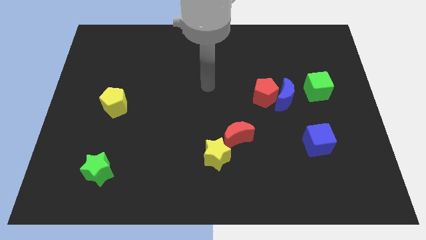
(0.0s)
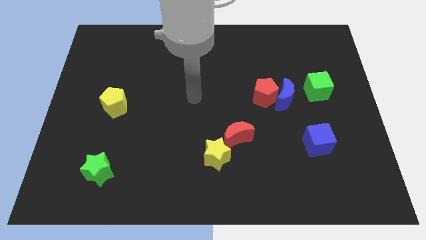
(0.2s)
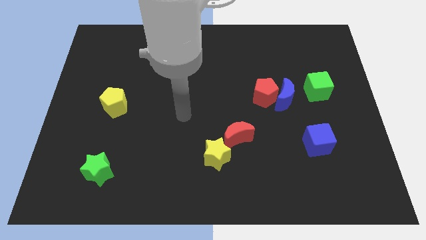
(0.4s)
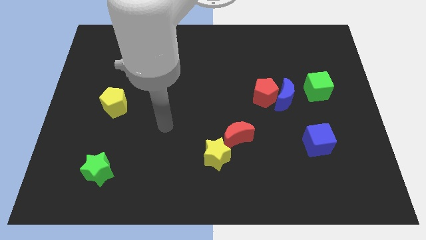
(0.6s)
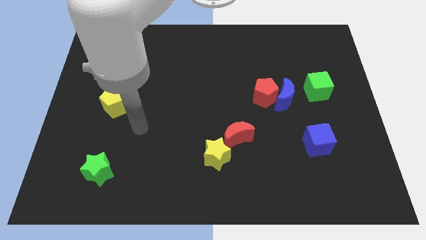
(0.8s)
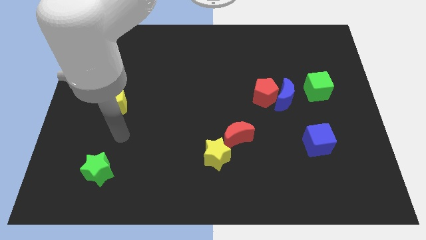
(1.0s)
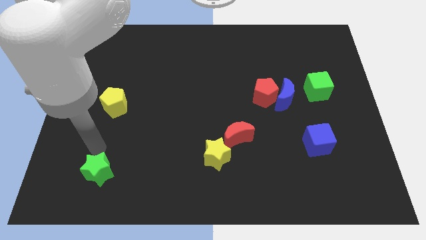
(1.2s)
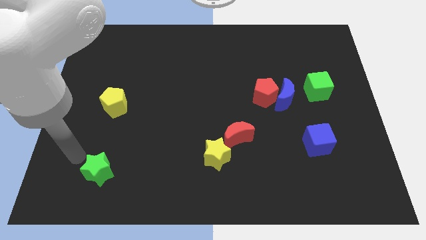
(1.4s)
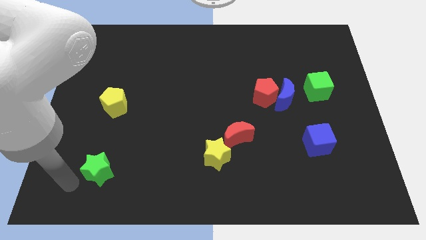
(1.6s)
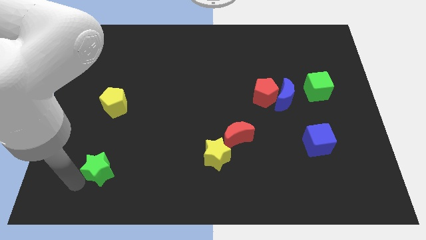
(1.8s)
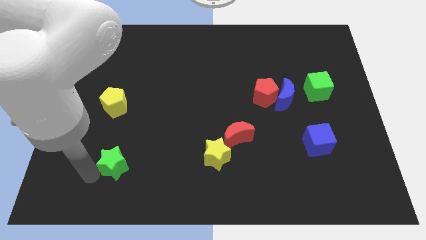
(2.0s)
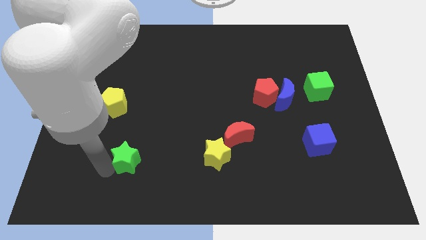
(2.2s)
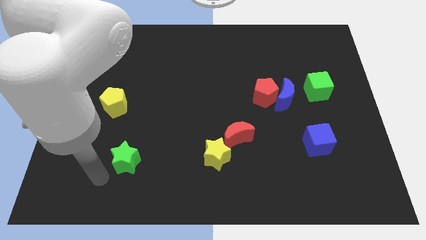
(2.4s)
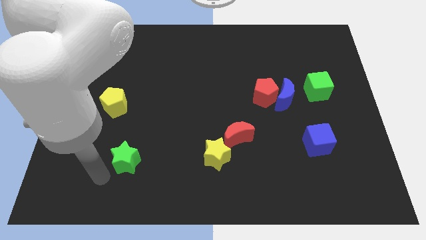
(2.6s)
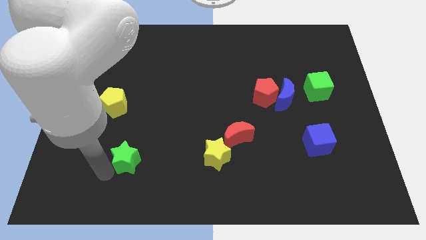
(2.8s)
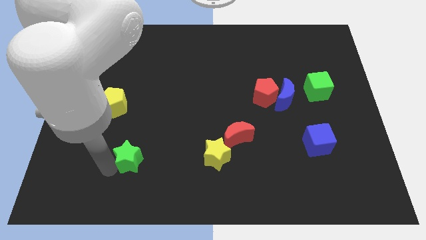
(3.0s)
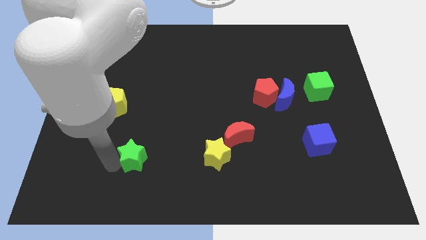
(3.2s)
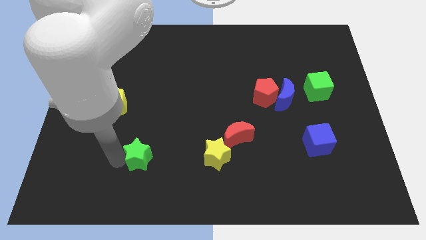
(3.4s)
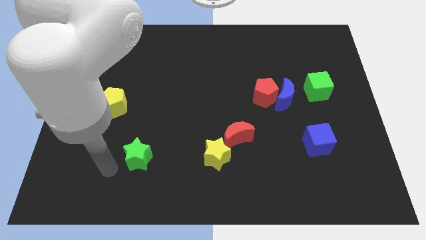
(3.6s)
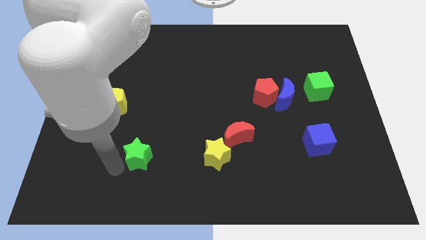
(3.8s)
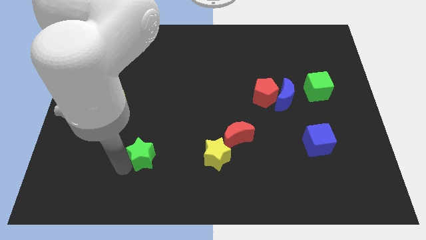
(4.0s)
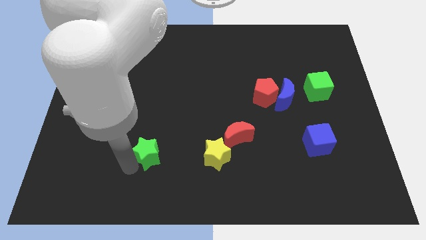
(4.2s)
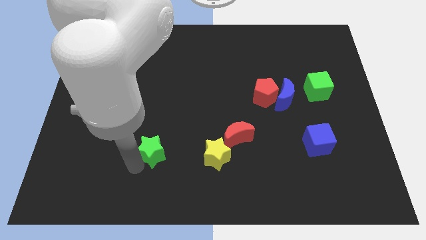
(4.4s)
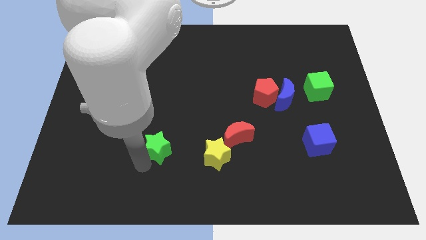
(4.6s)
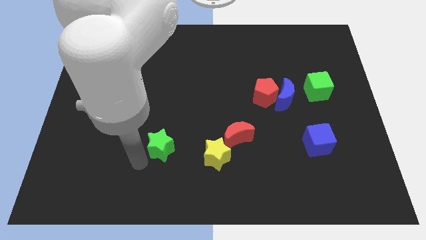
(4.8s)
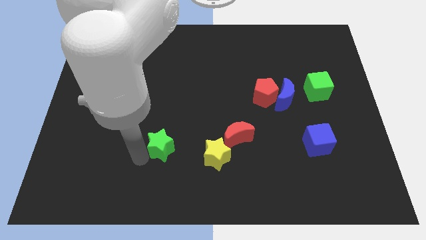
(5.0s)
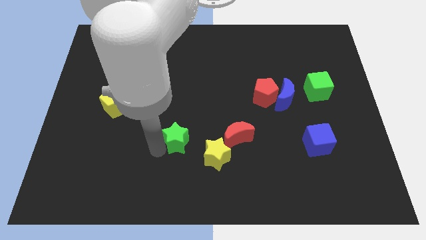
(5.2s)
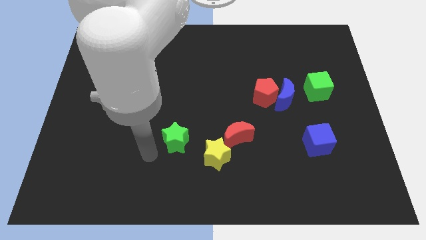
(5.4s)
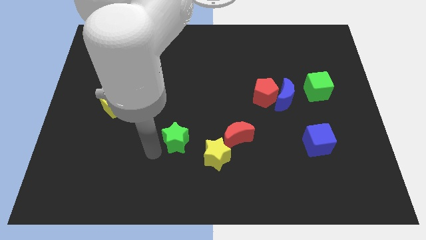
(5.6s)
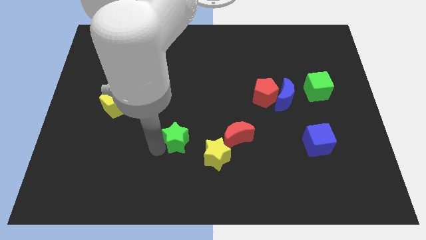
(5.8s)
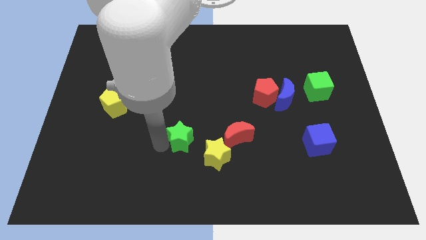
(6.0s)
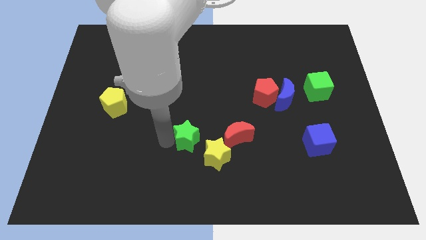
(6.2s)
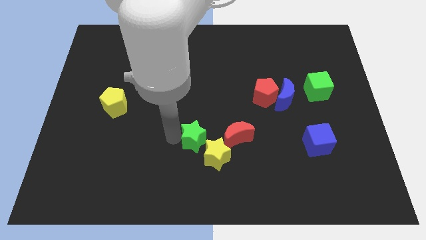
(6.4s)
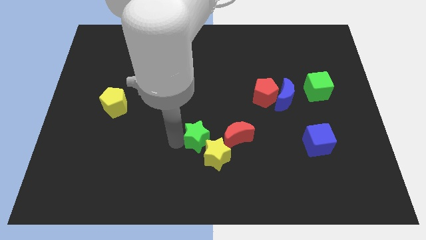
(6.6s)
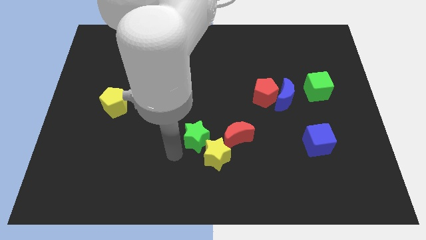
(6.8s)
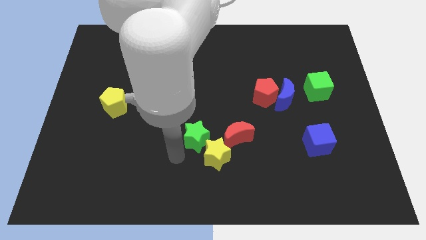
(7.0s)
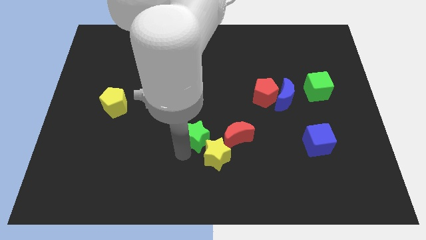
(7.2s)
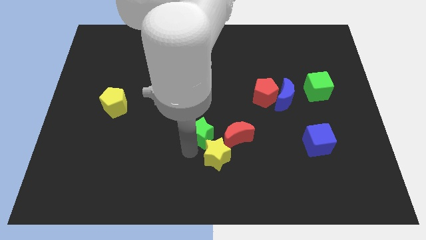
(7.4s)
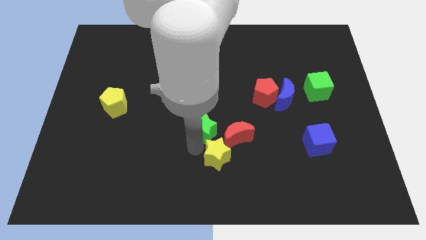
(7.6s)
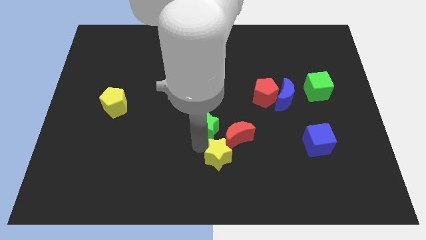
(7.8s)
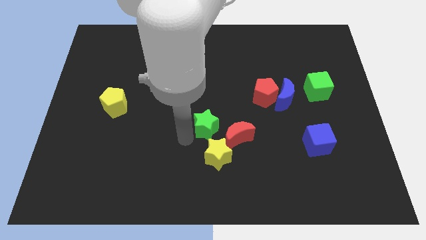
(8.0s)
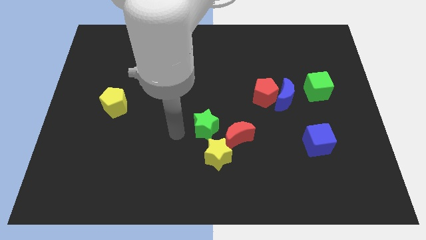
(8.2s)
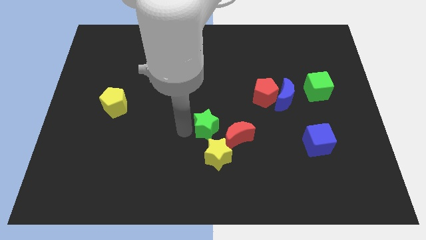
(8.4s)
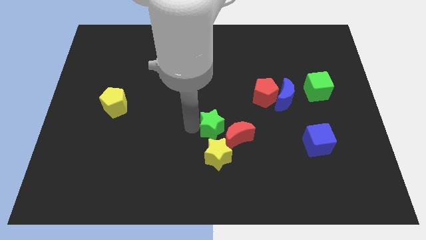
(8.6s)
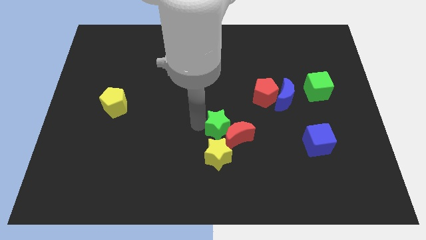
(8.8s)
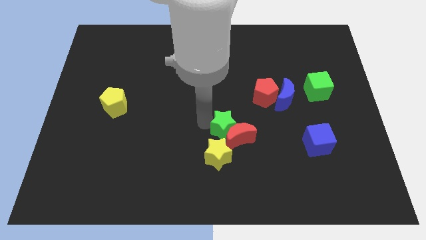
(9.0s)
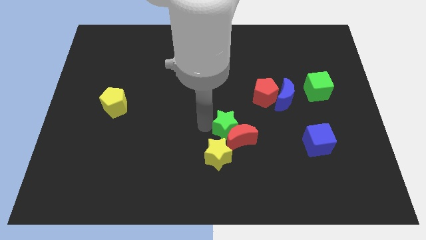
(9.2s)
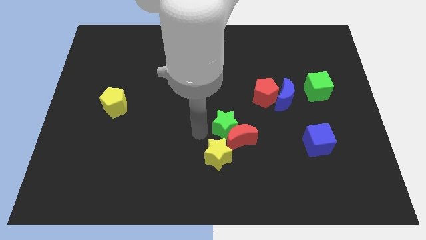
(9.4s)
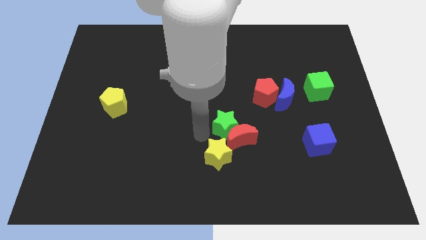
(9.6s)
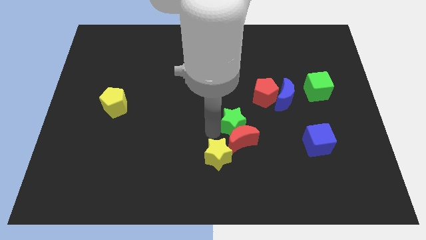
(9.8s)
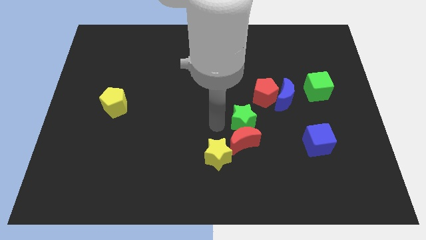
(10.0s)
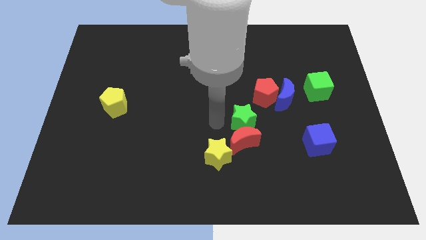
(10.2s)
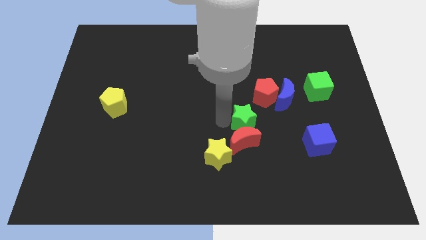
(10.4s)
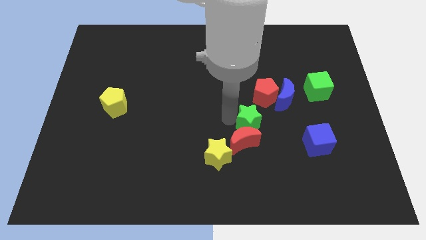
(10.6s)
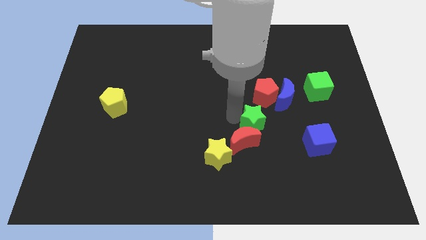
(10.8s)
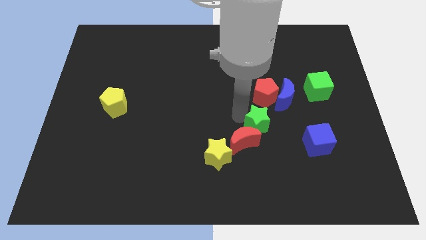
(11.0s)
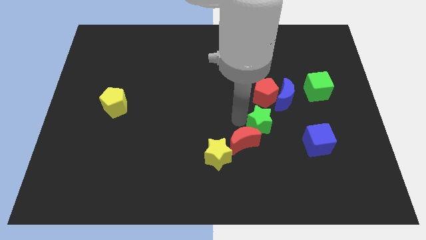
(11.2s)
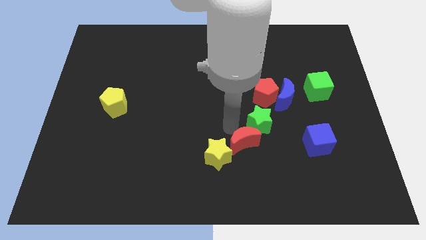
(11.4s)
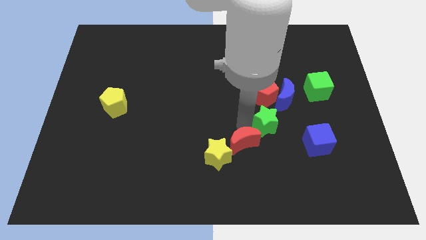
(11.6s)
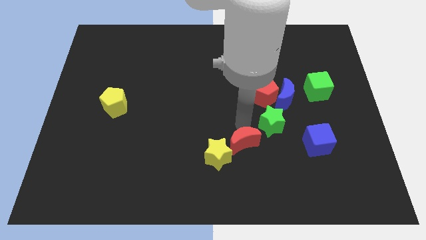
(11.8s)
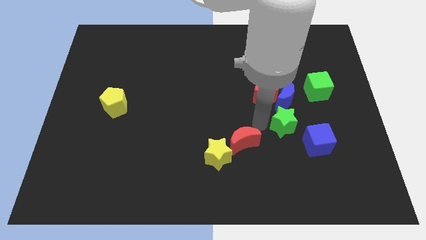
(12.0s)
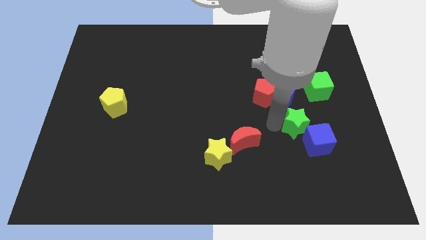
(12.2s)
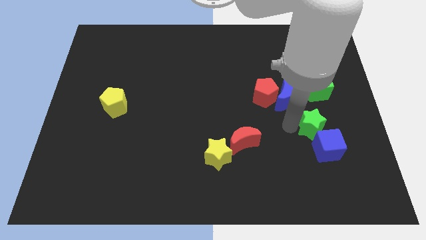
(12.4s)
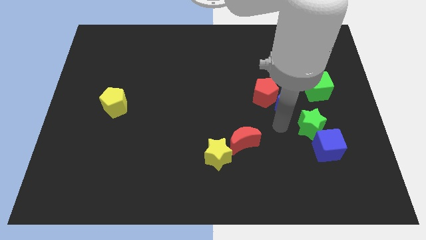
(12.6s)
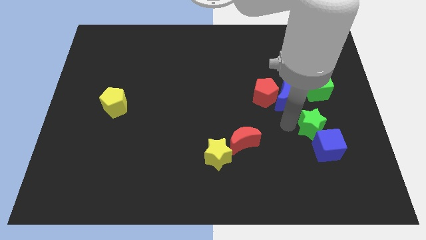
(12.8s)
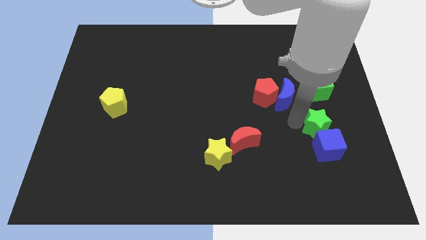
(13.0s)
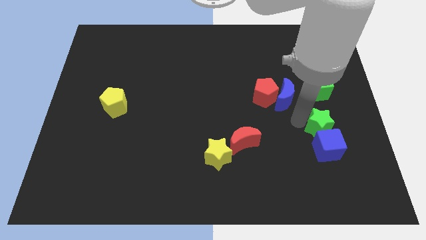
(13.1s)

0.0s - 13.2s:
push the green star to the top right side of the blue cube
